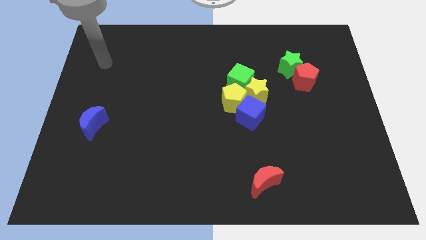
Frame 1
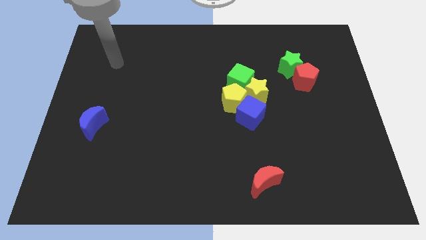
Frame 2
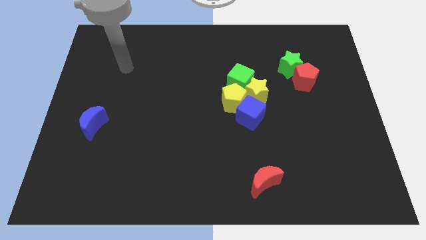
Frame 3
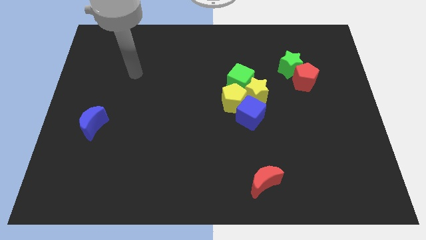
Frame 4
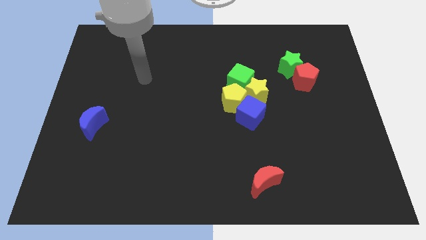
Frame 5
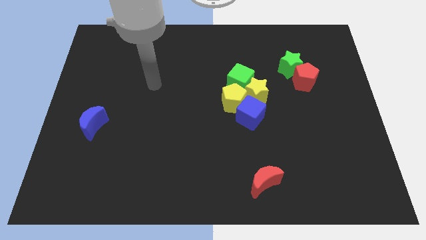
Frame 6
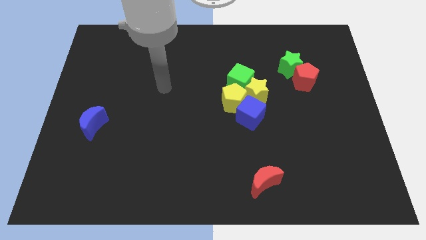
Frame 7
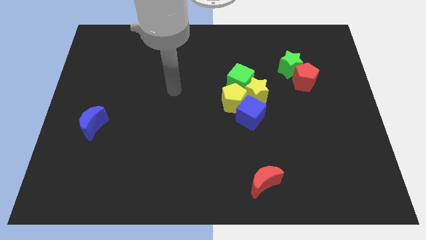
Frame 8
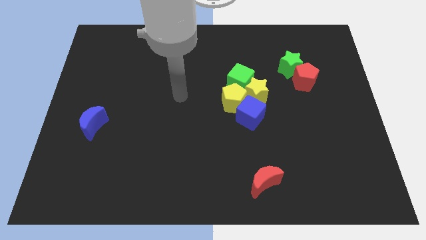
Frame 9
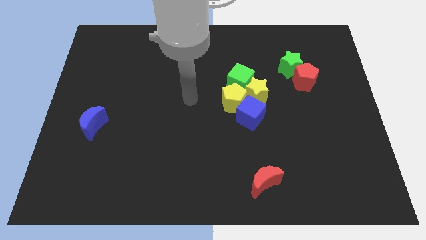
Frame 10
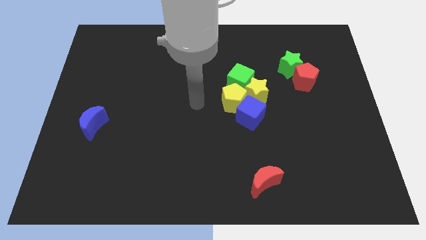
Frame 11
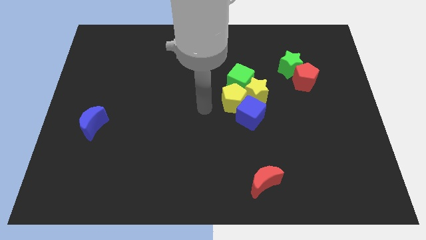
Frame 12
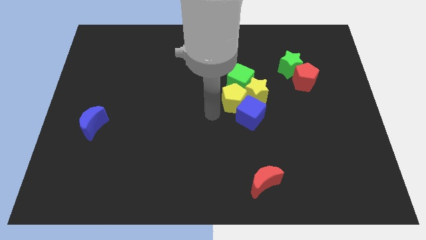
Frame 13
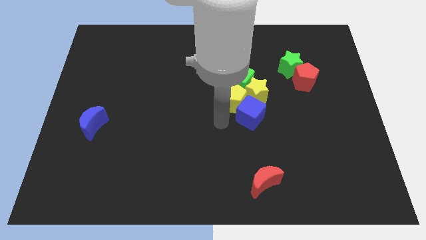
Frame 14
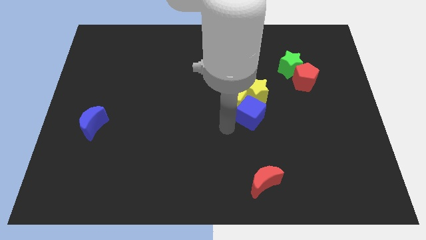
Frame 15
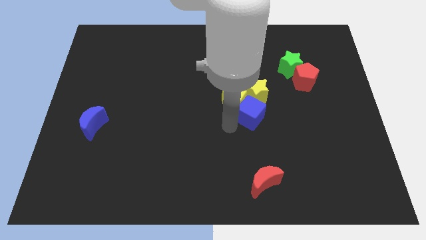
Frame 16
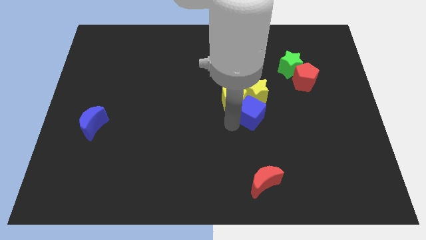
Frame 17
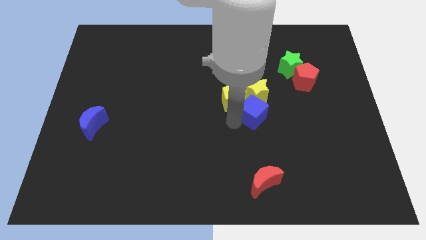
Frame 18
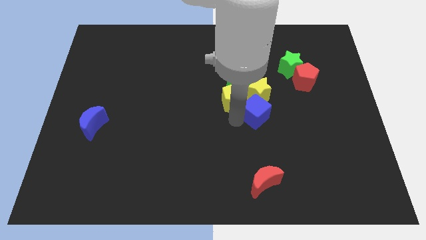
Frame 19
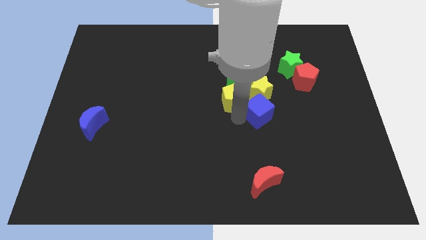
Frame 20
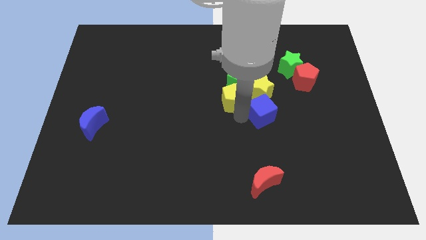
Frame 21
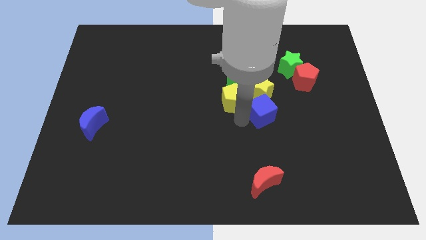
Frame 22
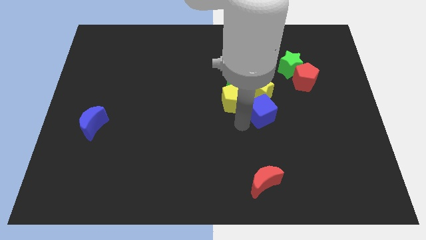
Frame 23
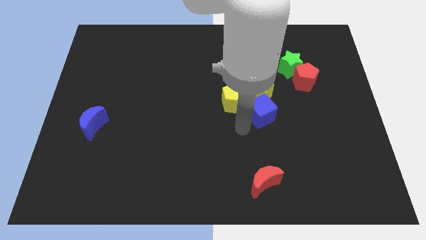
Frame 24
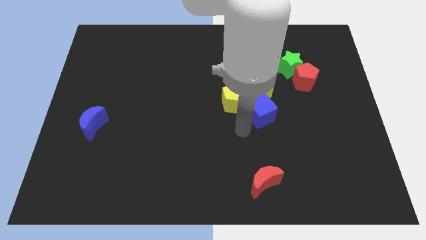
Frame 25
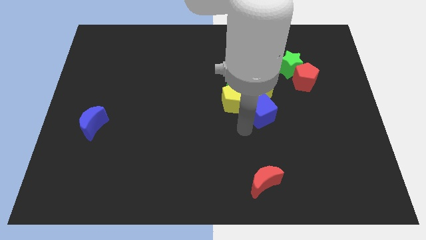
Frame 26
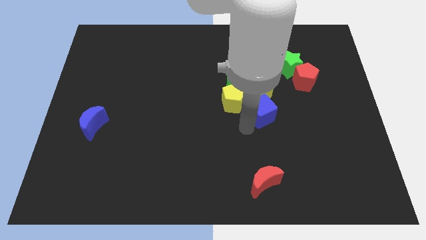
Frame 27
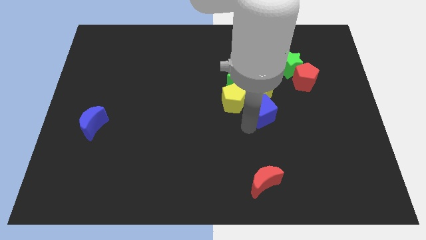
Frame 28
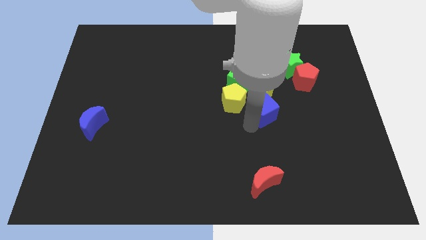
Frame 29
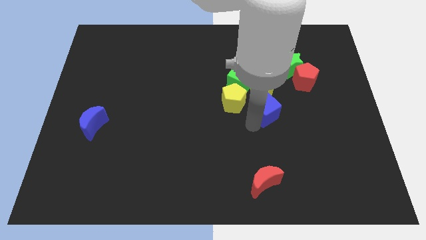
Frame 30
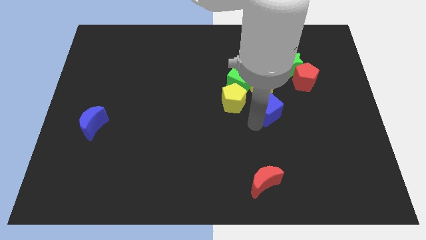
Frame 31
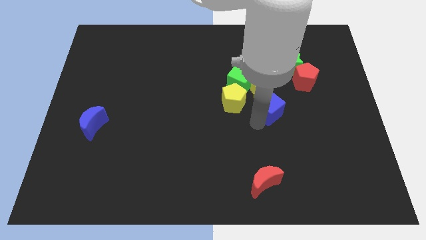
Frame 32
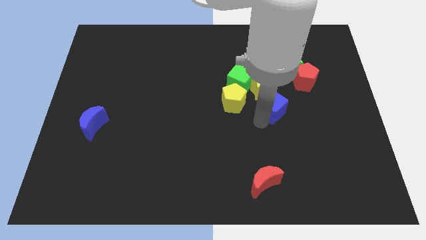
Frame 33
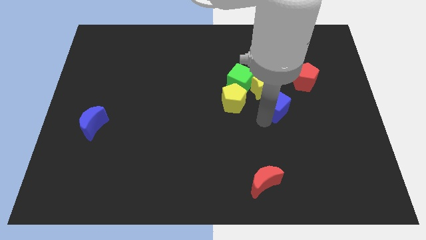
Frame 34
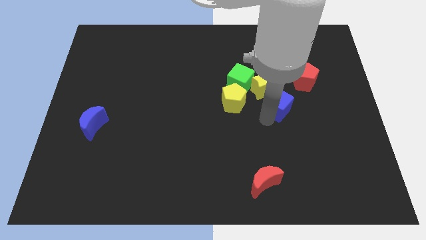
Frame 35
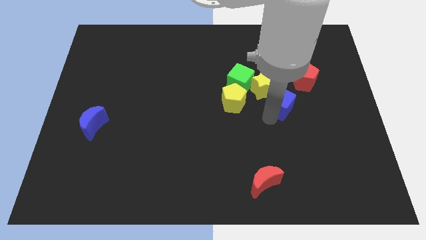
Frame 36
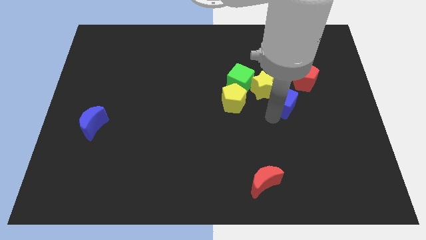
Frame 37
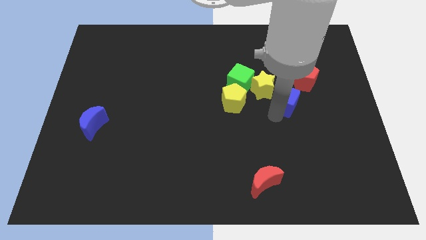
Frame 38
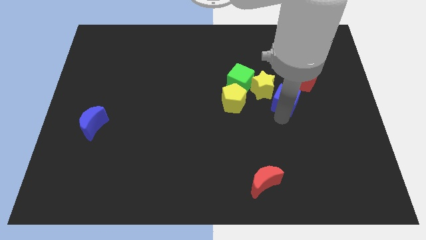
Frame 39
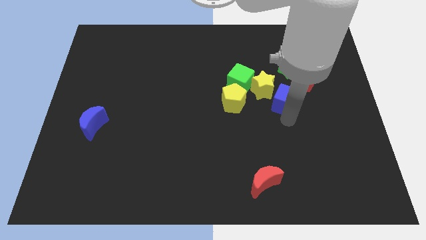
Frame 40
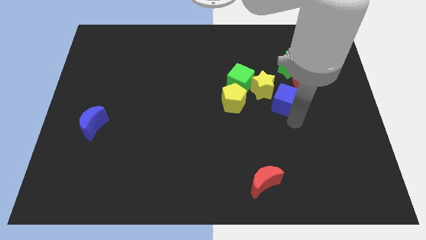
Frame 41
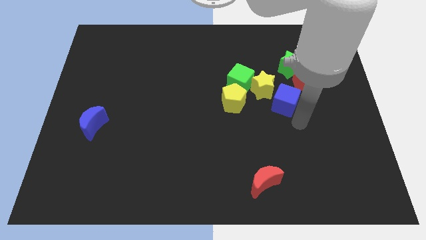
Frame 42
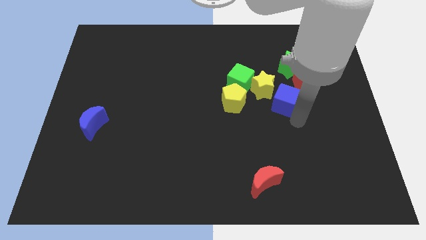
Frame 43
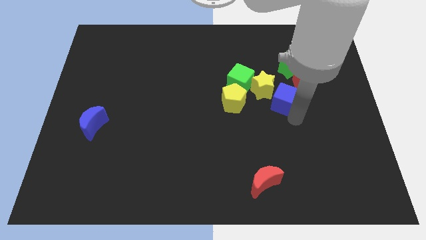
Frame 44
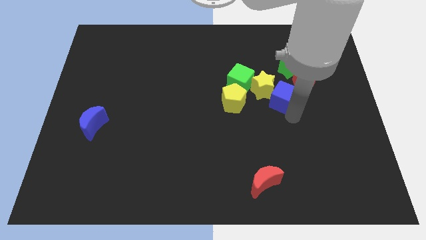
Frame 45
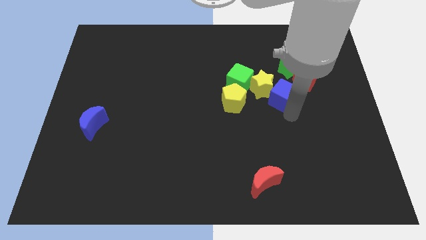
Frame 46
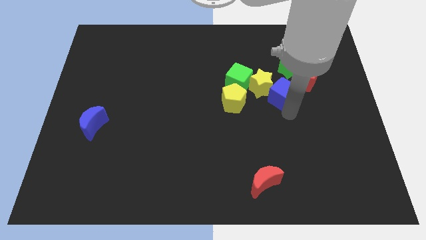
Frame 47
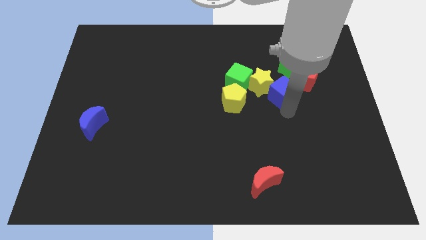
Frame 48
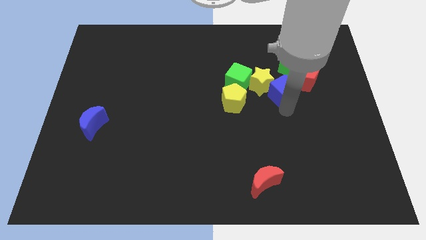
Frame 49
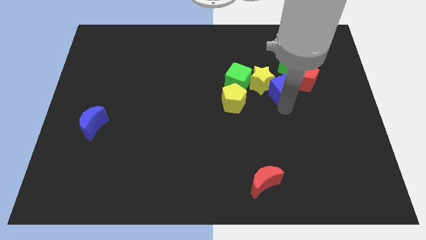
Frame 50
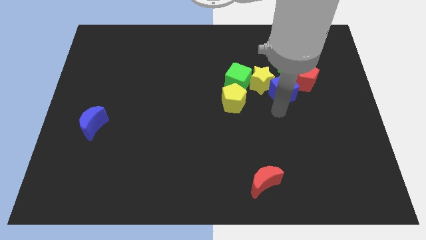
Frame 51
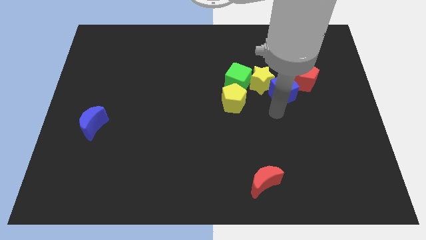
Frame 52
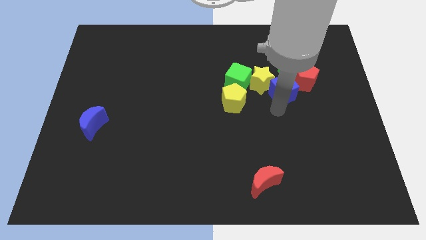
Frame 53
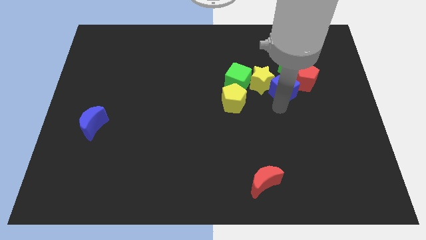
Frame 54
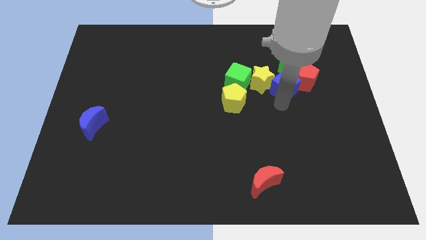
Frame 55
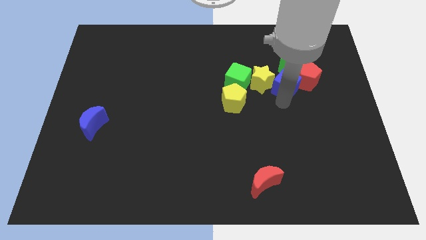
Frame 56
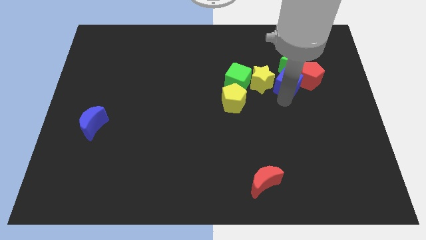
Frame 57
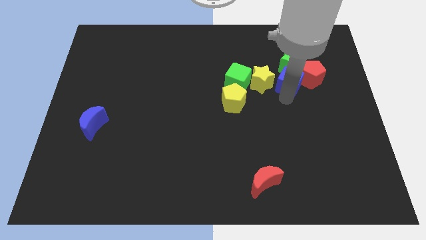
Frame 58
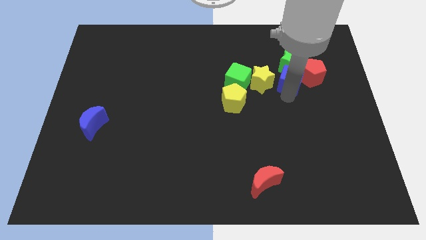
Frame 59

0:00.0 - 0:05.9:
slide the blue cube towards the green star
